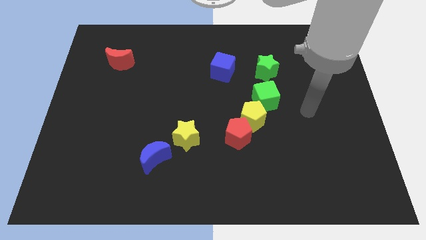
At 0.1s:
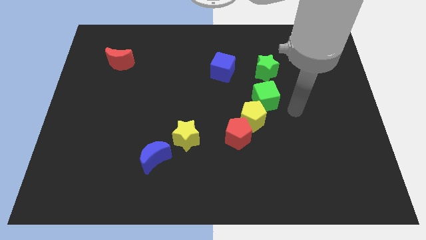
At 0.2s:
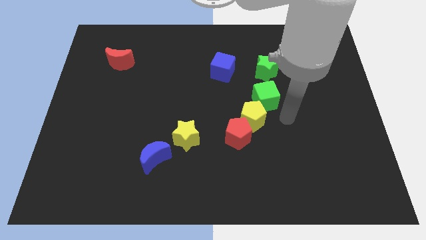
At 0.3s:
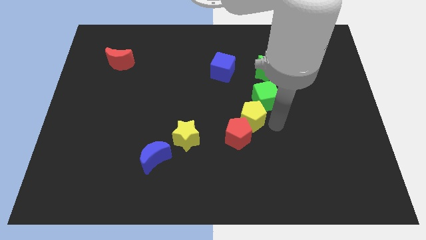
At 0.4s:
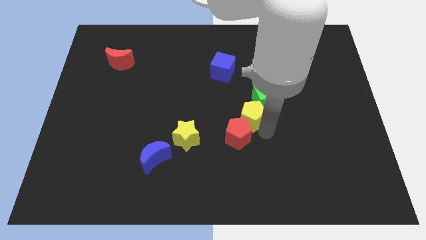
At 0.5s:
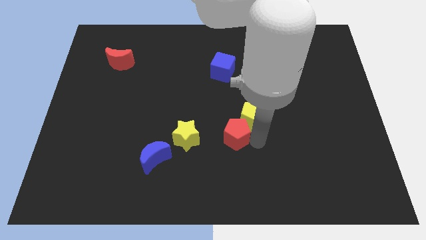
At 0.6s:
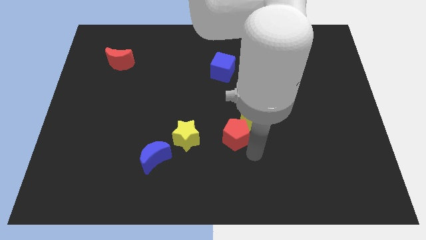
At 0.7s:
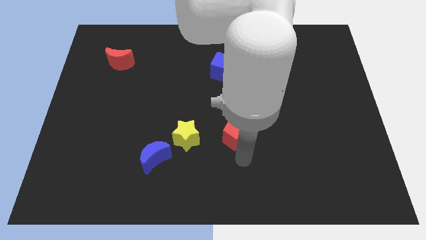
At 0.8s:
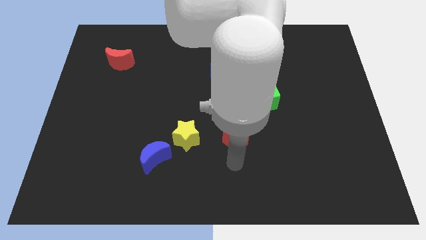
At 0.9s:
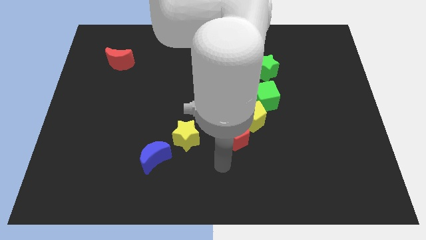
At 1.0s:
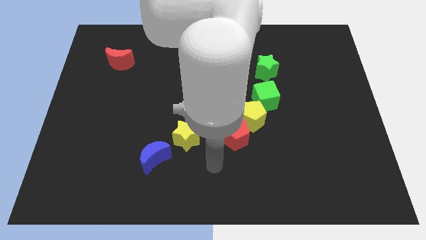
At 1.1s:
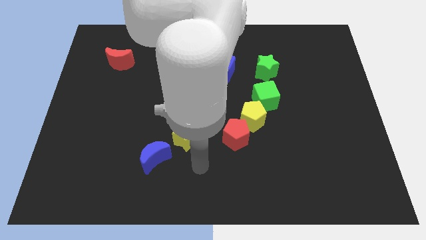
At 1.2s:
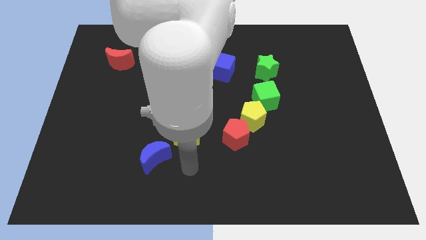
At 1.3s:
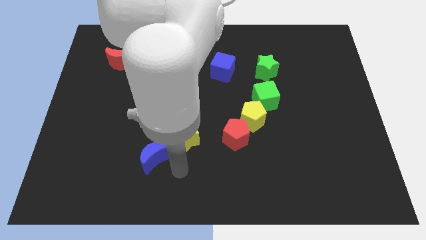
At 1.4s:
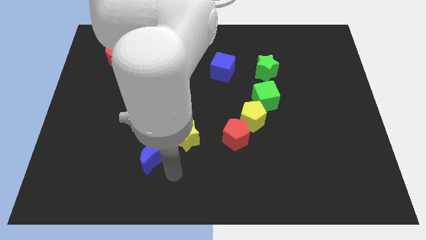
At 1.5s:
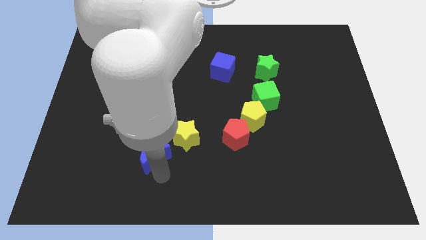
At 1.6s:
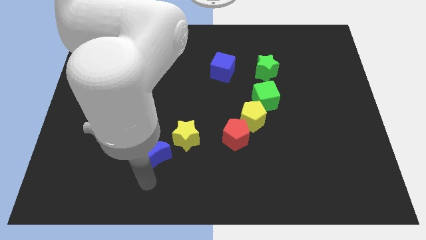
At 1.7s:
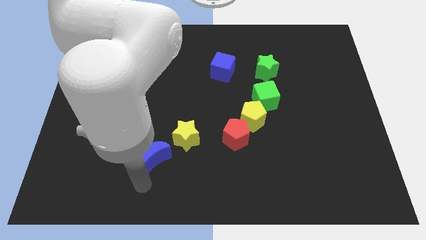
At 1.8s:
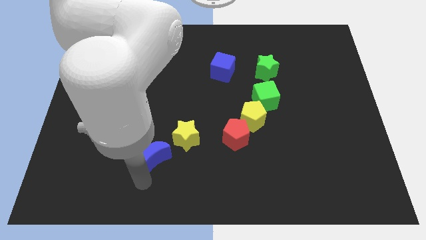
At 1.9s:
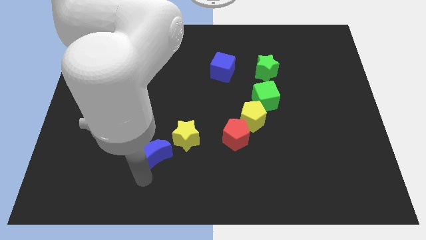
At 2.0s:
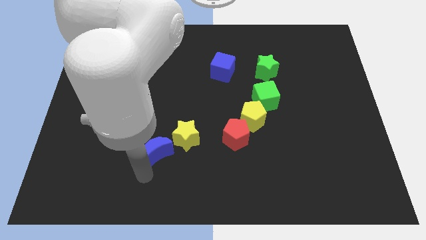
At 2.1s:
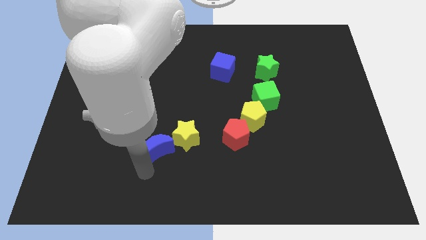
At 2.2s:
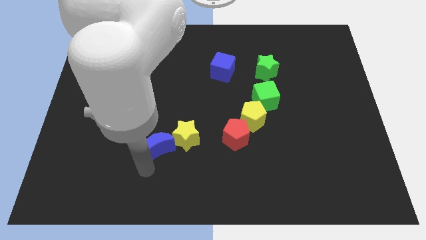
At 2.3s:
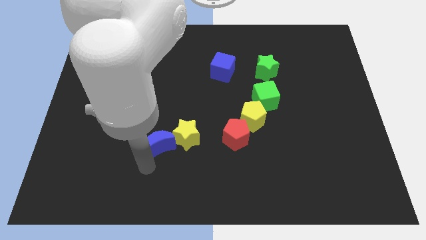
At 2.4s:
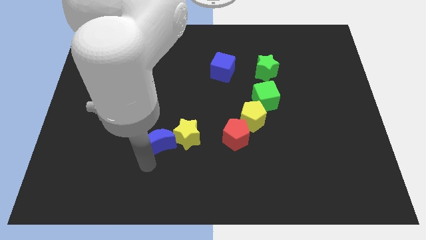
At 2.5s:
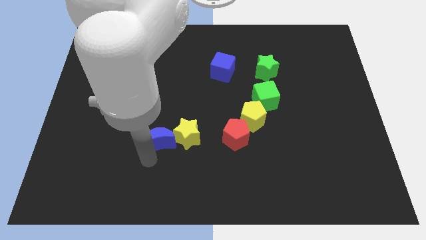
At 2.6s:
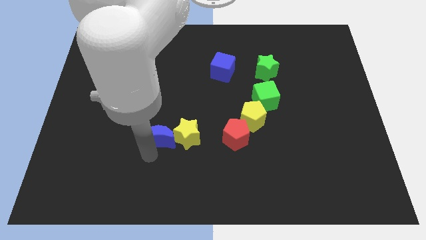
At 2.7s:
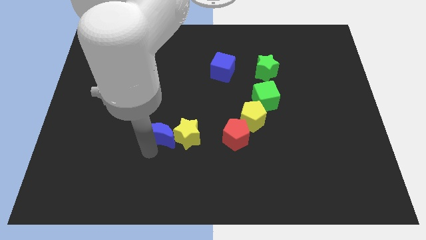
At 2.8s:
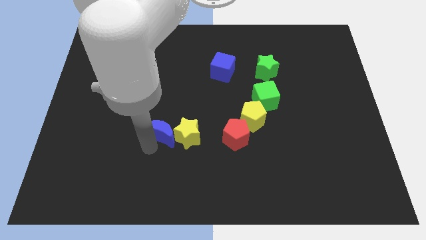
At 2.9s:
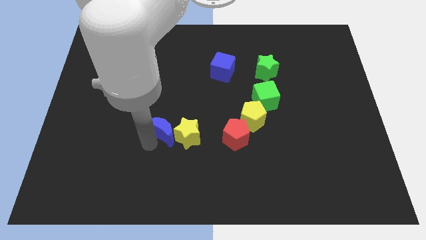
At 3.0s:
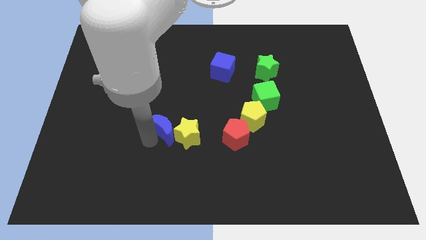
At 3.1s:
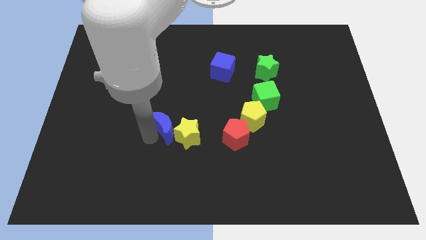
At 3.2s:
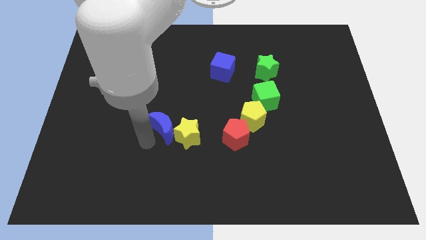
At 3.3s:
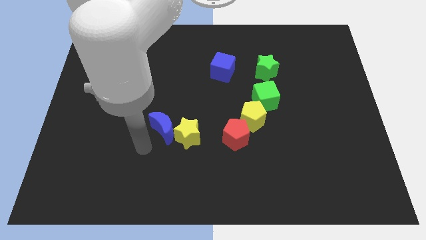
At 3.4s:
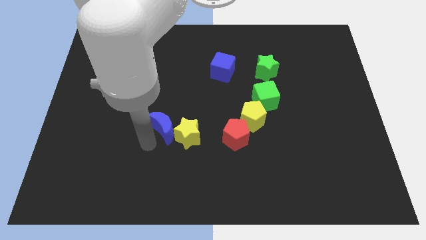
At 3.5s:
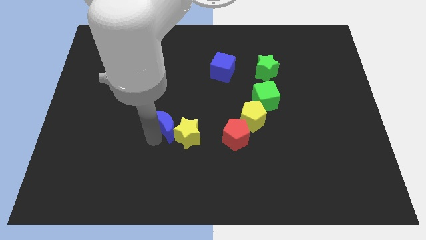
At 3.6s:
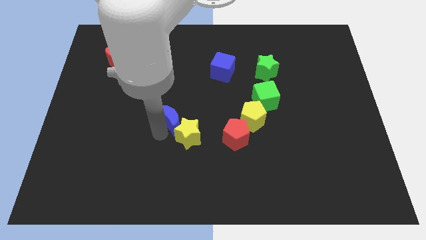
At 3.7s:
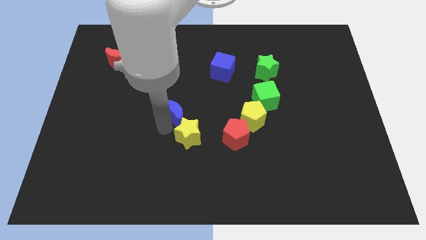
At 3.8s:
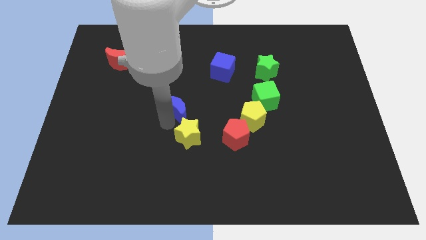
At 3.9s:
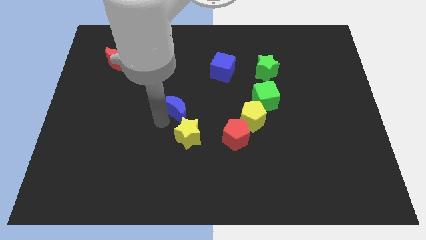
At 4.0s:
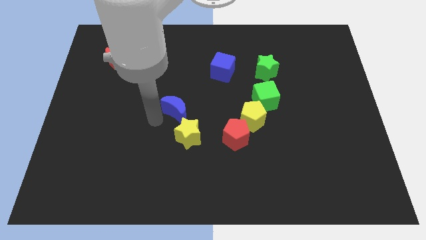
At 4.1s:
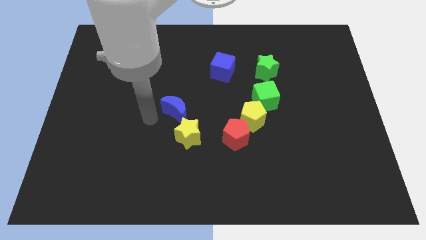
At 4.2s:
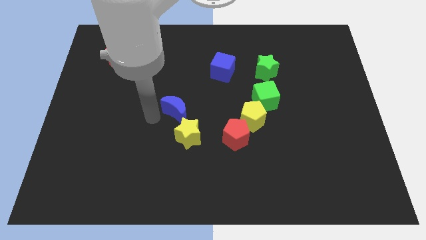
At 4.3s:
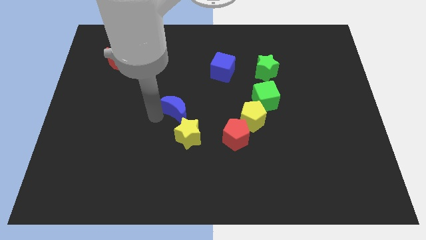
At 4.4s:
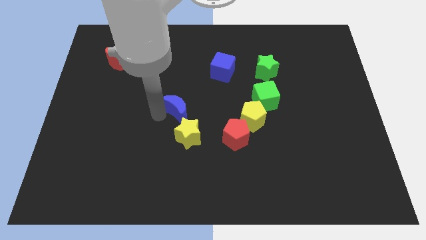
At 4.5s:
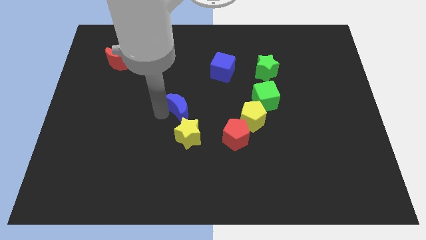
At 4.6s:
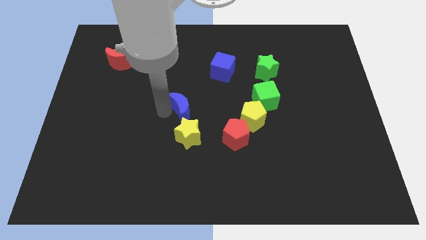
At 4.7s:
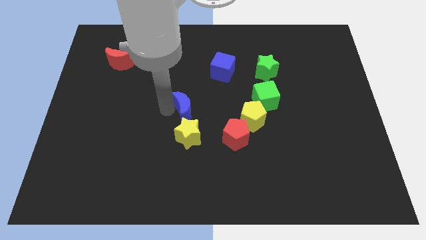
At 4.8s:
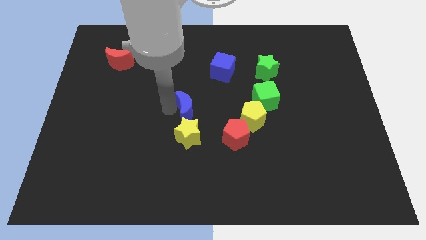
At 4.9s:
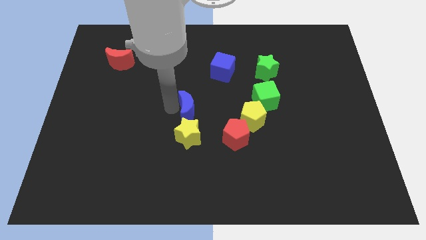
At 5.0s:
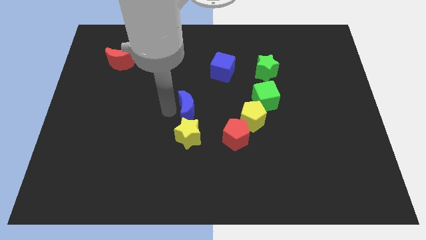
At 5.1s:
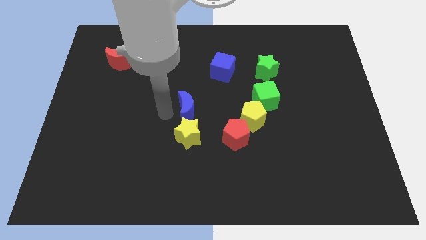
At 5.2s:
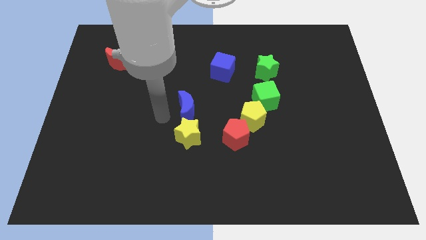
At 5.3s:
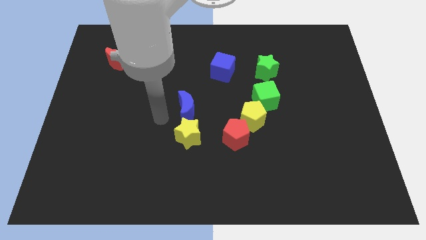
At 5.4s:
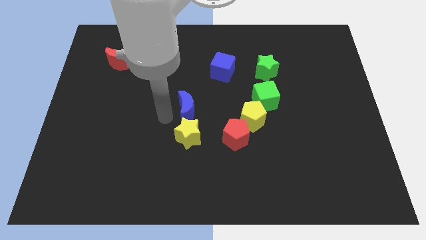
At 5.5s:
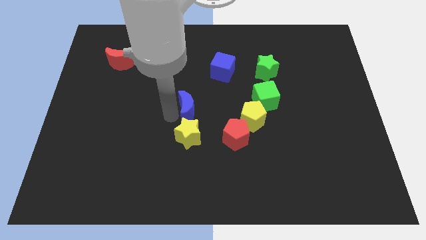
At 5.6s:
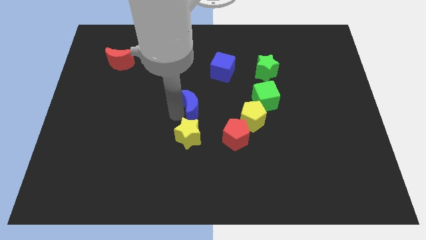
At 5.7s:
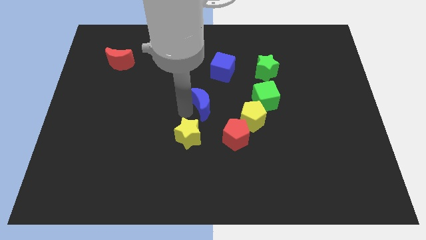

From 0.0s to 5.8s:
move the blue moon to the bottom side of the blue cube

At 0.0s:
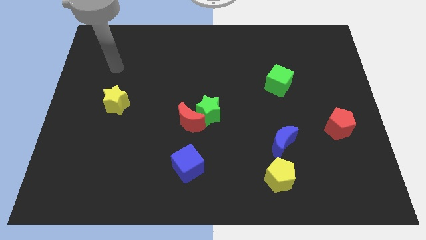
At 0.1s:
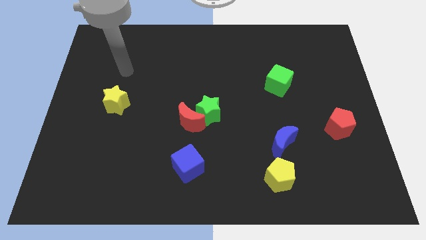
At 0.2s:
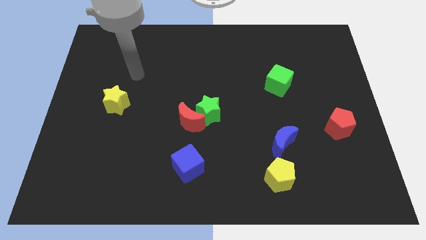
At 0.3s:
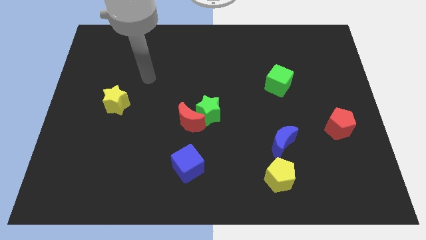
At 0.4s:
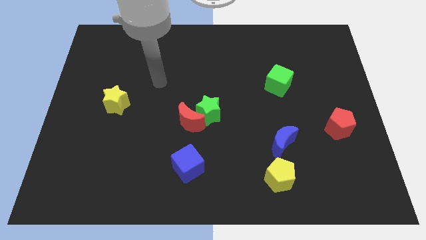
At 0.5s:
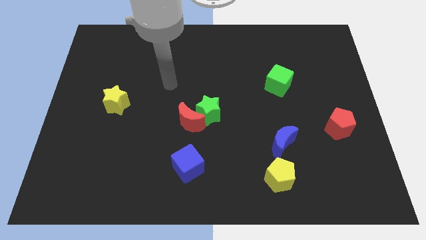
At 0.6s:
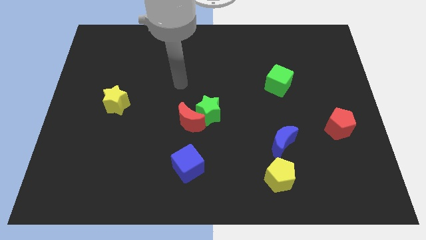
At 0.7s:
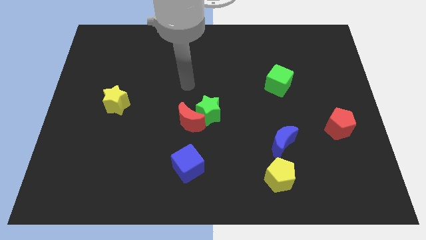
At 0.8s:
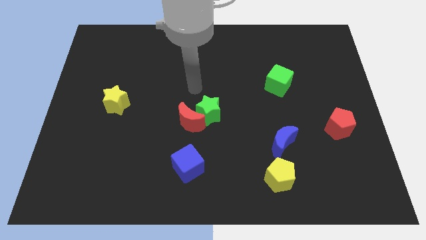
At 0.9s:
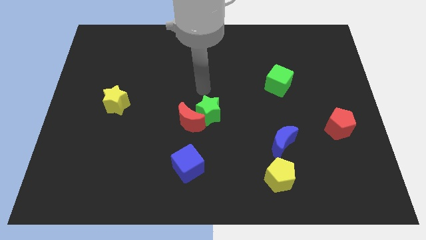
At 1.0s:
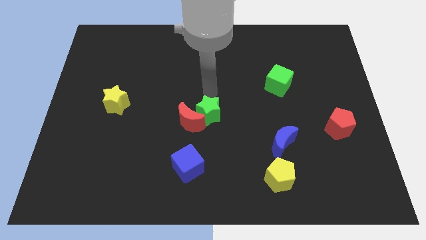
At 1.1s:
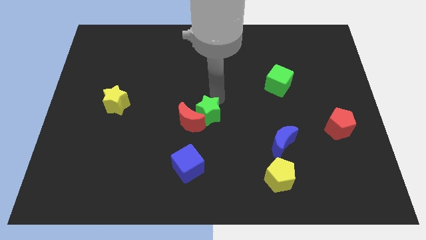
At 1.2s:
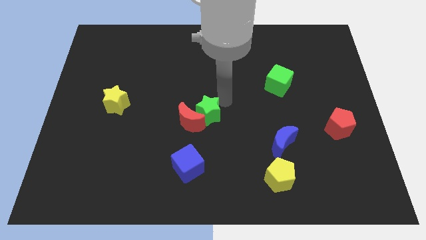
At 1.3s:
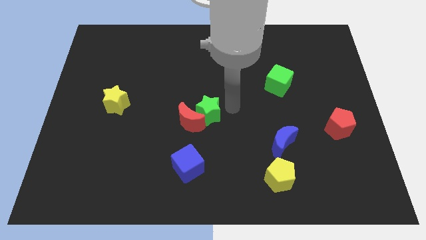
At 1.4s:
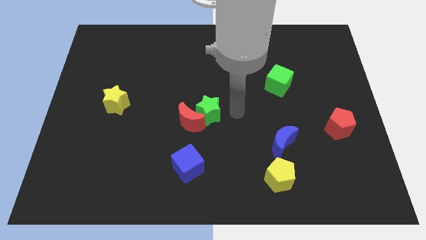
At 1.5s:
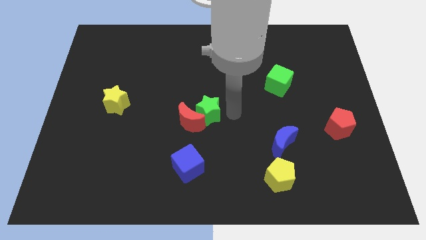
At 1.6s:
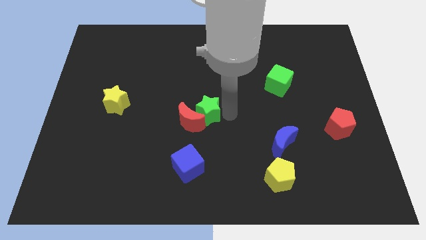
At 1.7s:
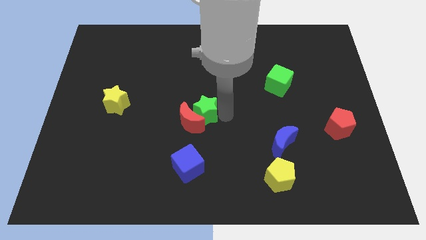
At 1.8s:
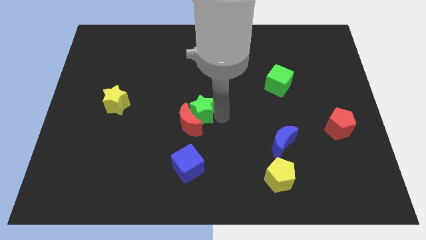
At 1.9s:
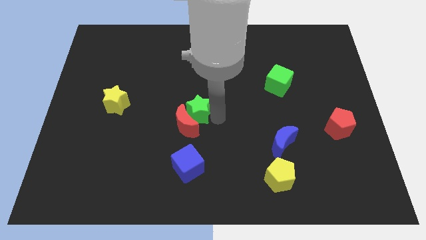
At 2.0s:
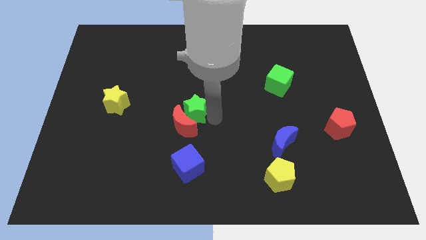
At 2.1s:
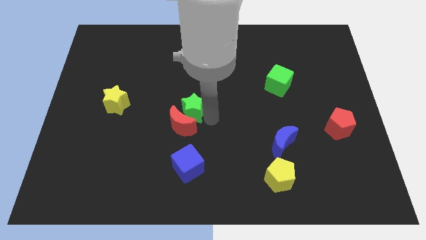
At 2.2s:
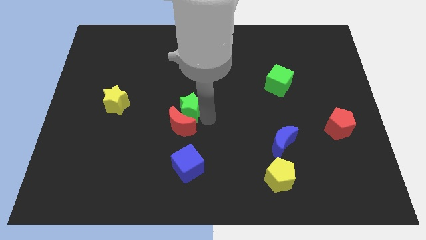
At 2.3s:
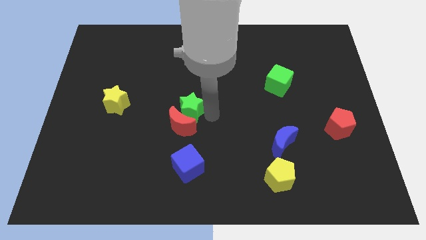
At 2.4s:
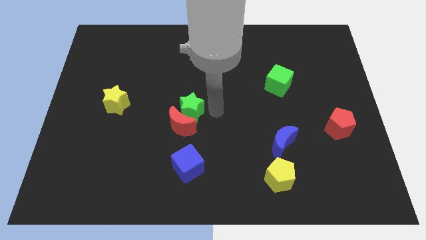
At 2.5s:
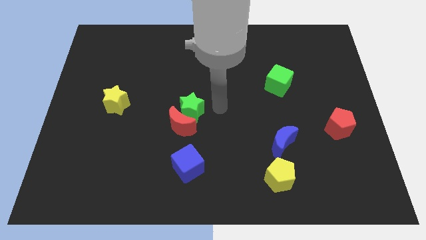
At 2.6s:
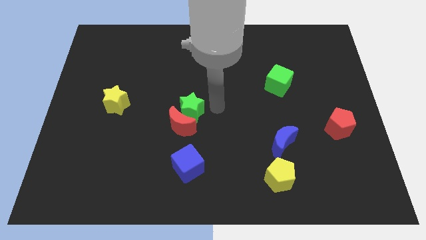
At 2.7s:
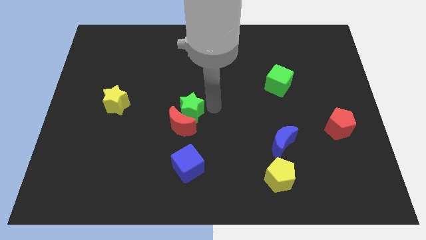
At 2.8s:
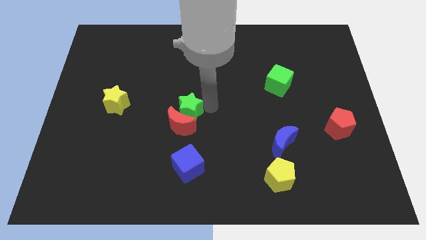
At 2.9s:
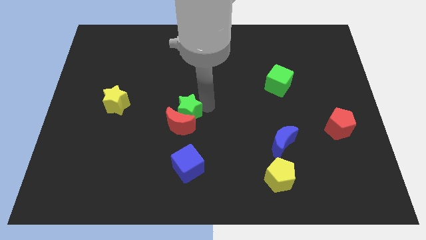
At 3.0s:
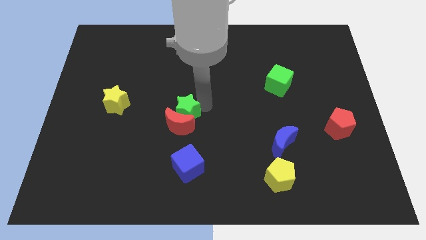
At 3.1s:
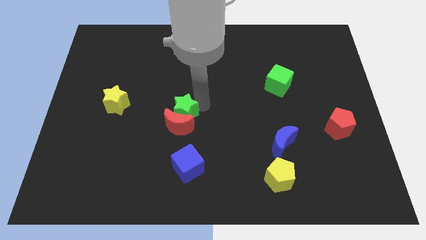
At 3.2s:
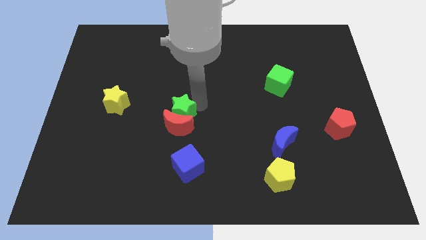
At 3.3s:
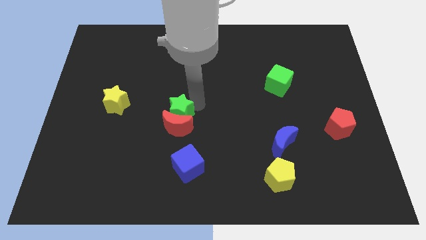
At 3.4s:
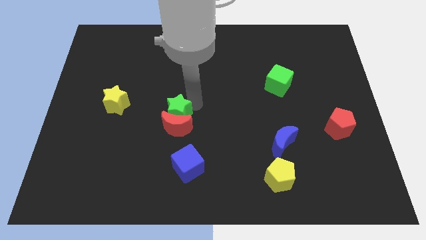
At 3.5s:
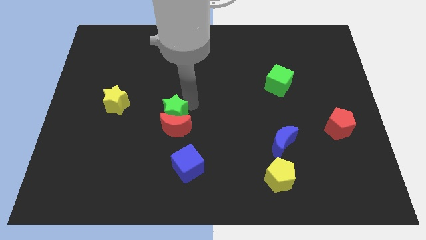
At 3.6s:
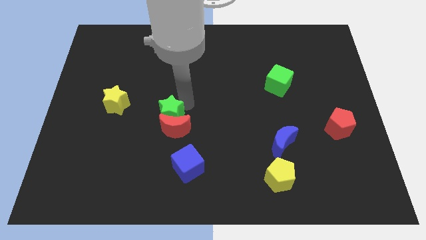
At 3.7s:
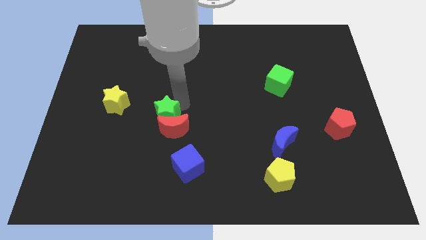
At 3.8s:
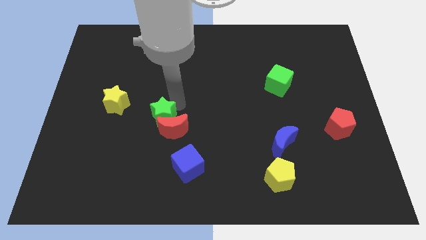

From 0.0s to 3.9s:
slide the green star to the left of the red moon
